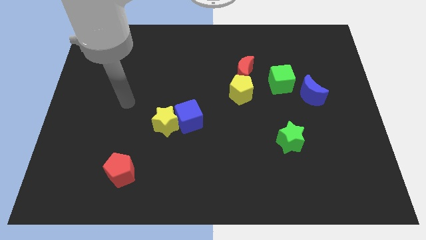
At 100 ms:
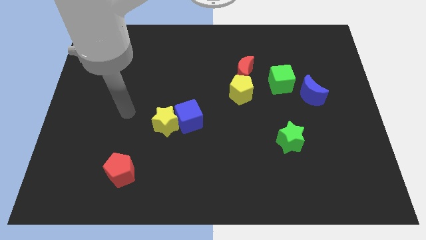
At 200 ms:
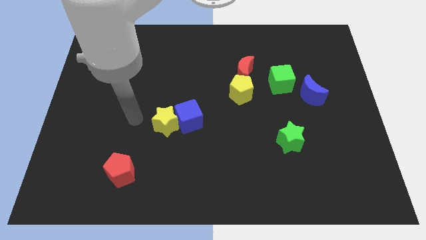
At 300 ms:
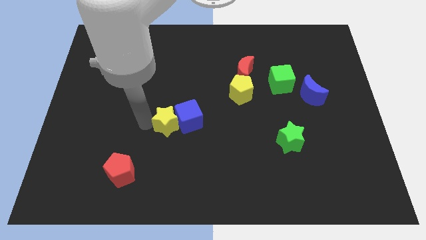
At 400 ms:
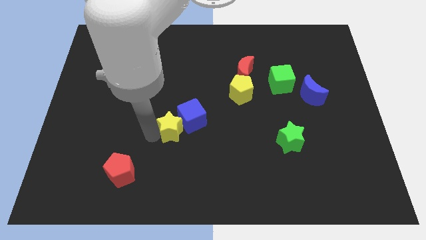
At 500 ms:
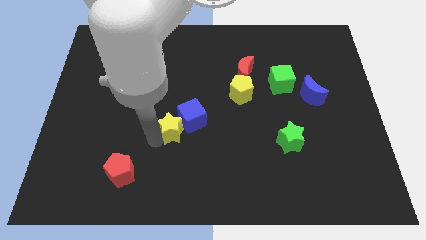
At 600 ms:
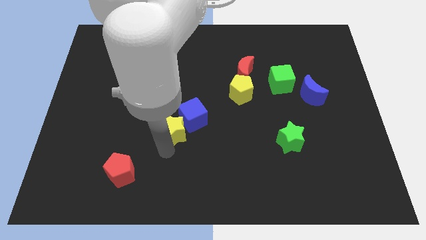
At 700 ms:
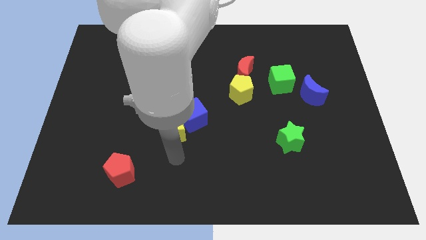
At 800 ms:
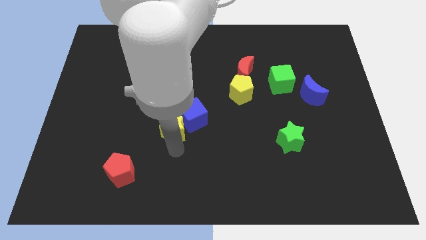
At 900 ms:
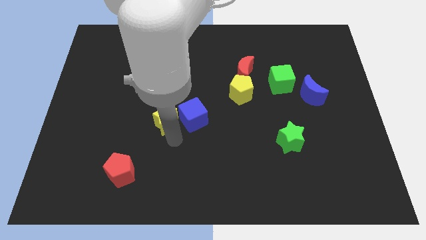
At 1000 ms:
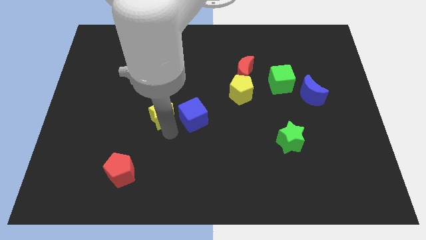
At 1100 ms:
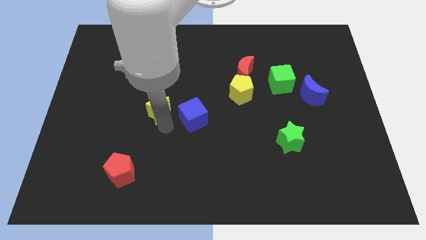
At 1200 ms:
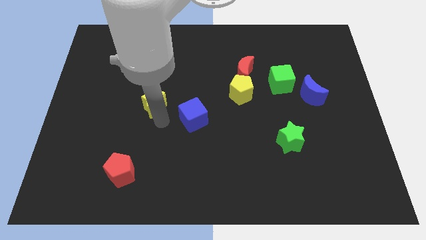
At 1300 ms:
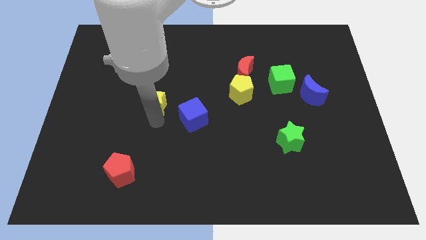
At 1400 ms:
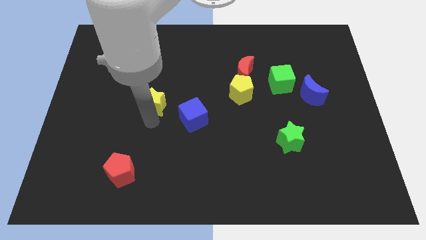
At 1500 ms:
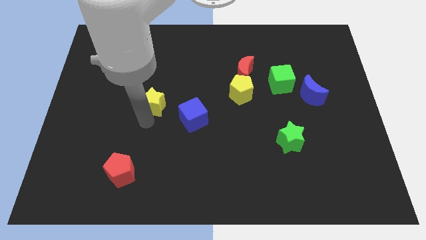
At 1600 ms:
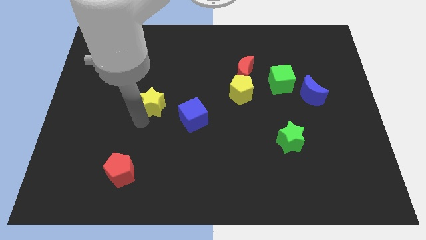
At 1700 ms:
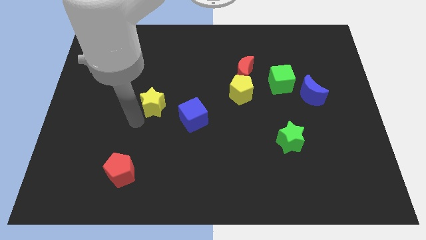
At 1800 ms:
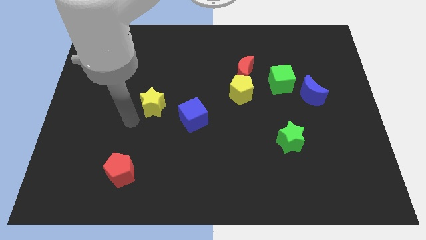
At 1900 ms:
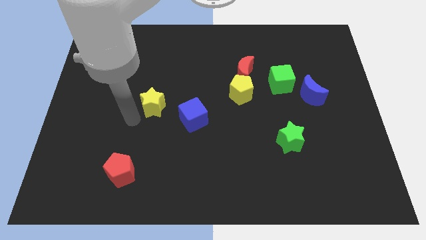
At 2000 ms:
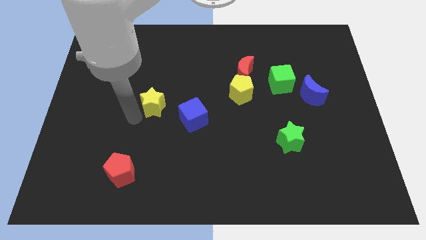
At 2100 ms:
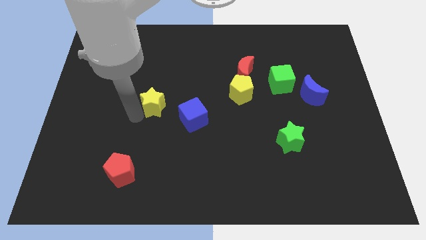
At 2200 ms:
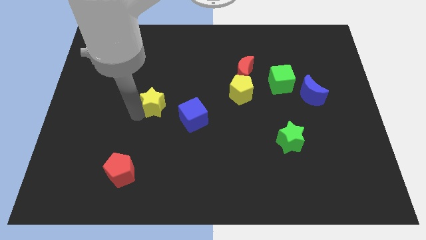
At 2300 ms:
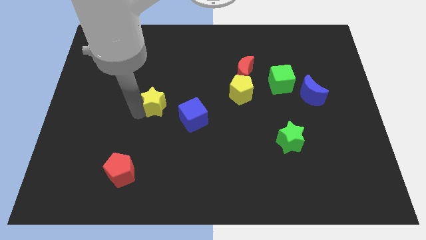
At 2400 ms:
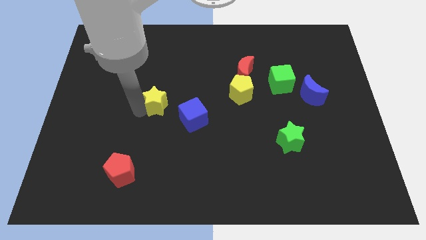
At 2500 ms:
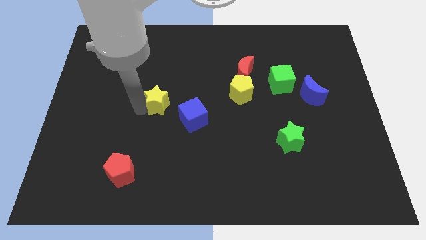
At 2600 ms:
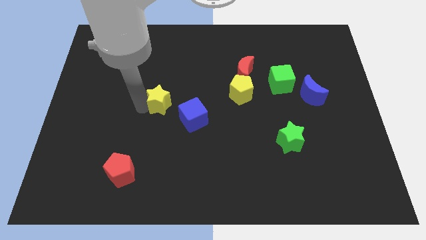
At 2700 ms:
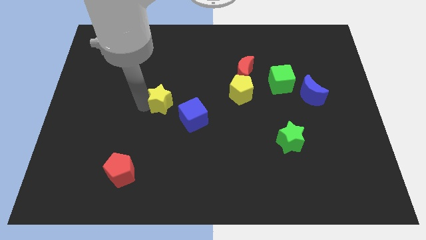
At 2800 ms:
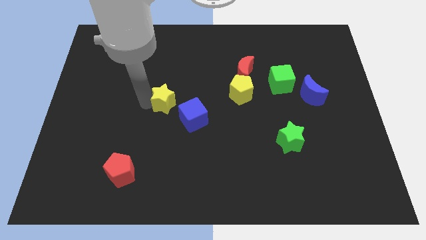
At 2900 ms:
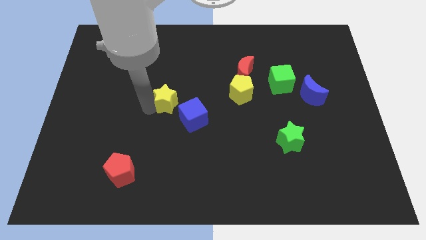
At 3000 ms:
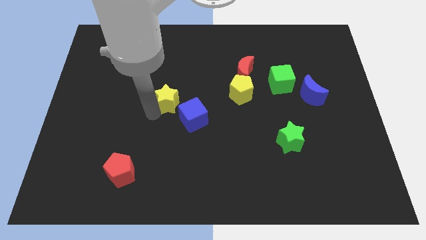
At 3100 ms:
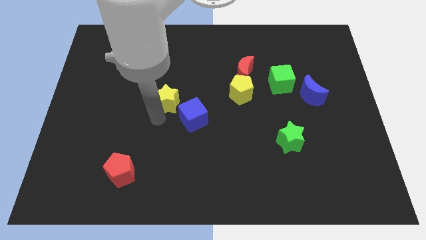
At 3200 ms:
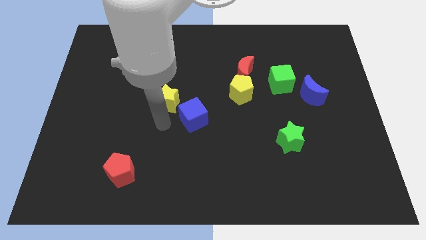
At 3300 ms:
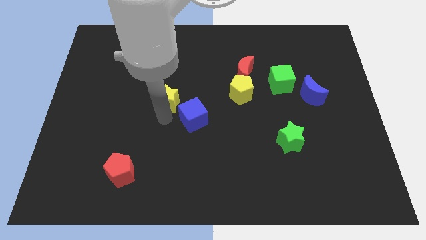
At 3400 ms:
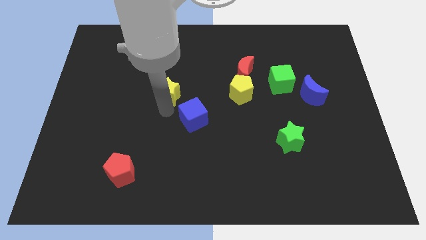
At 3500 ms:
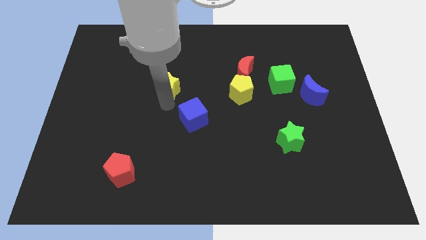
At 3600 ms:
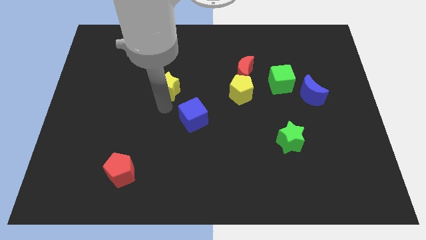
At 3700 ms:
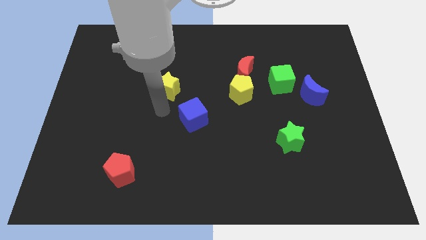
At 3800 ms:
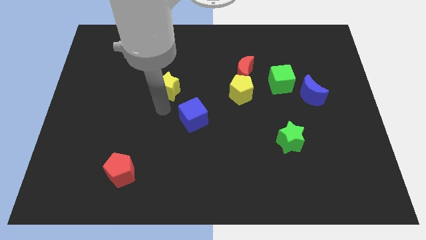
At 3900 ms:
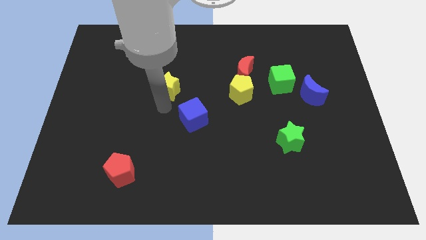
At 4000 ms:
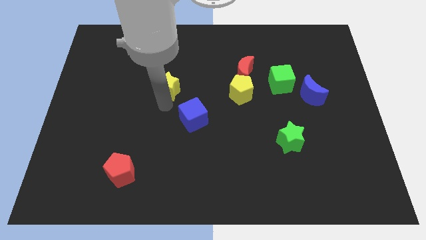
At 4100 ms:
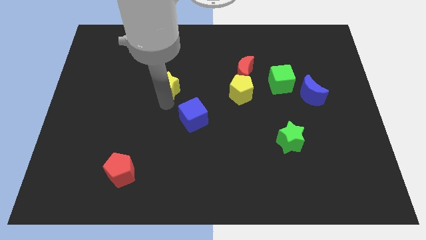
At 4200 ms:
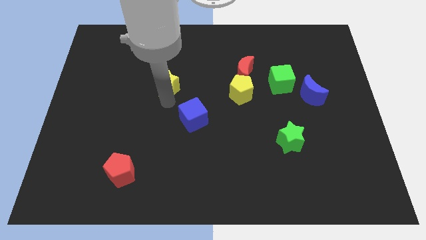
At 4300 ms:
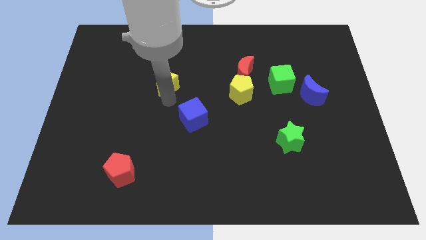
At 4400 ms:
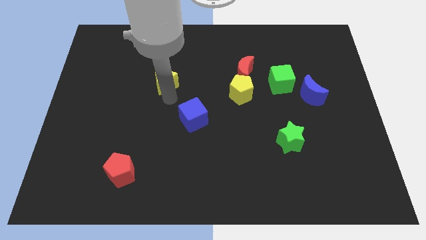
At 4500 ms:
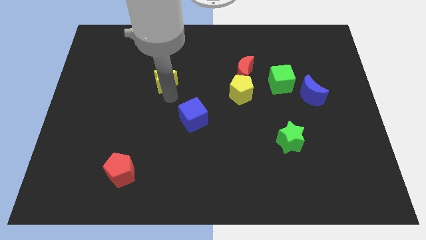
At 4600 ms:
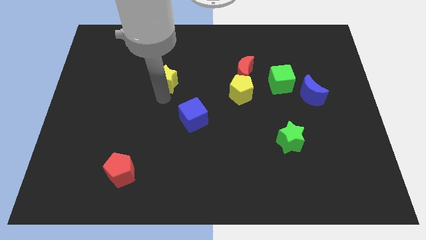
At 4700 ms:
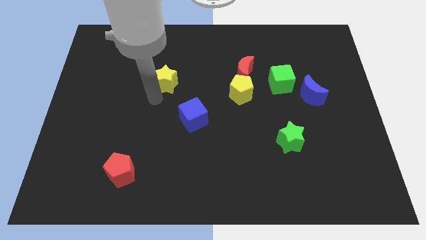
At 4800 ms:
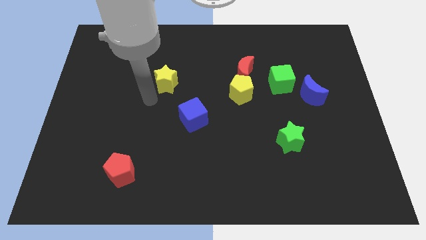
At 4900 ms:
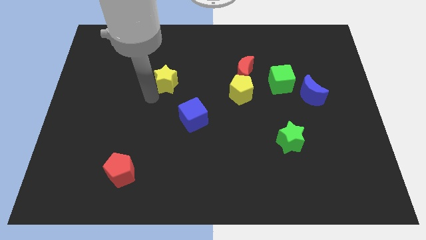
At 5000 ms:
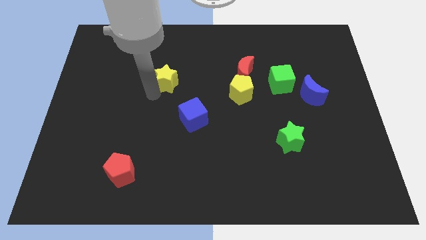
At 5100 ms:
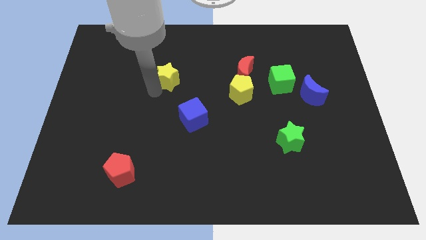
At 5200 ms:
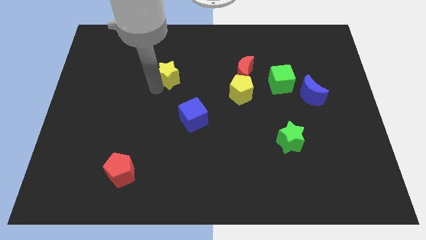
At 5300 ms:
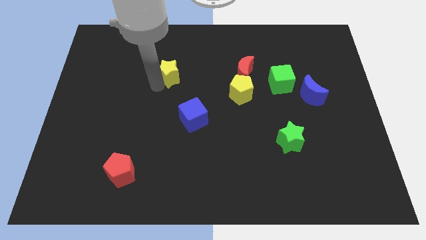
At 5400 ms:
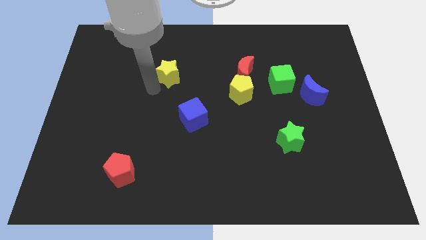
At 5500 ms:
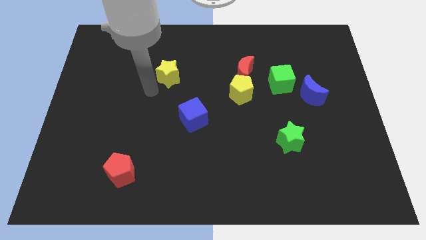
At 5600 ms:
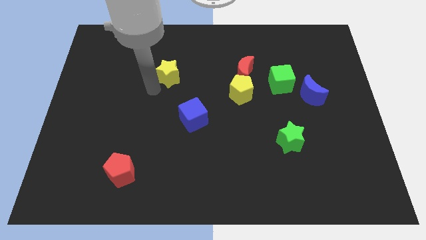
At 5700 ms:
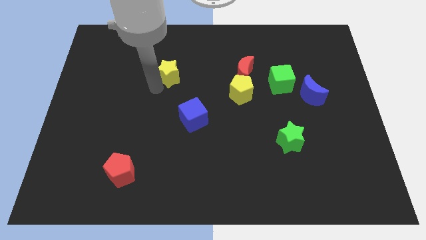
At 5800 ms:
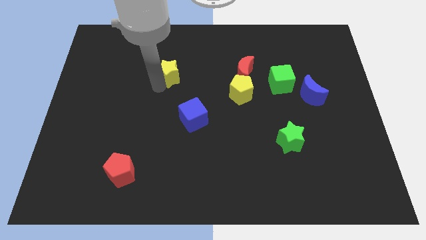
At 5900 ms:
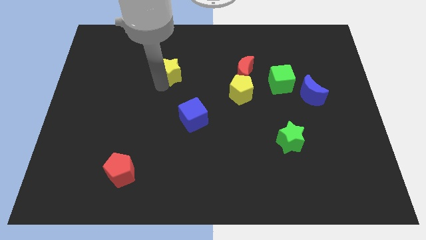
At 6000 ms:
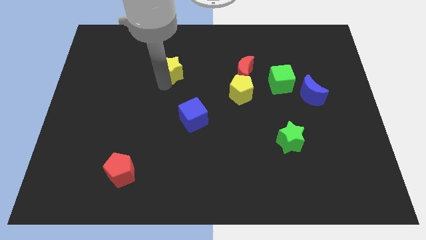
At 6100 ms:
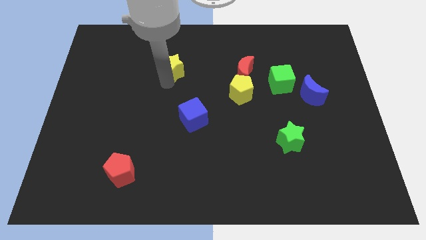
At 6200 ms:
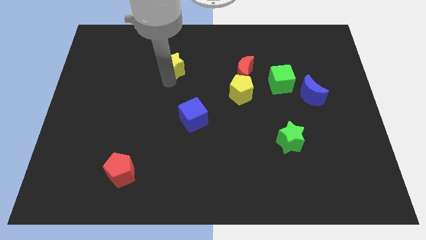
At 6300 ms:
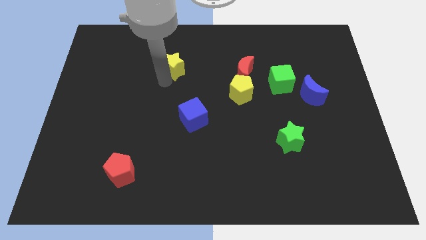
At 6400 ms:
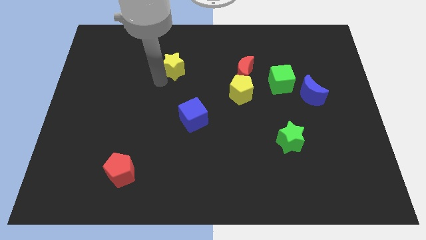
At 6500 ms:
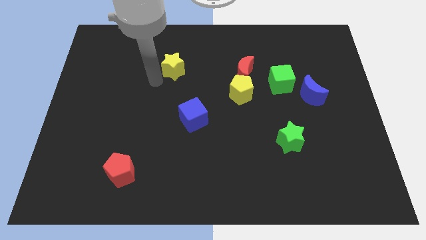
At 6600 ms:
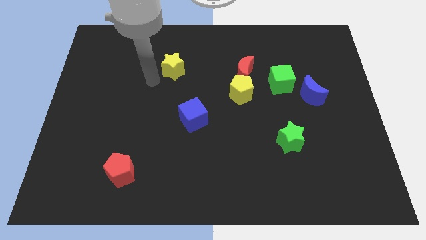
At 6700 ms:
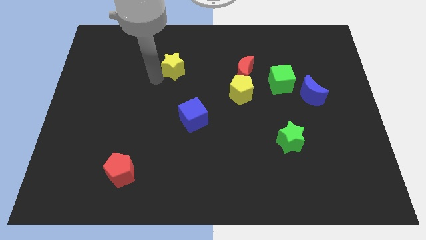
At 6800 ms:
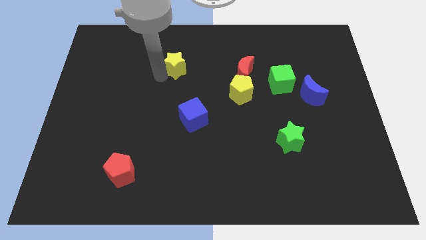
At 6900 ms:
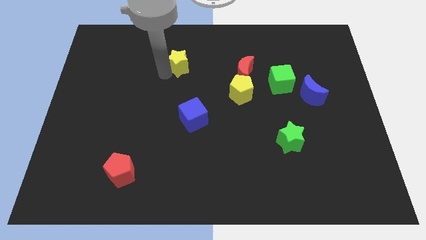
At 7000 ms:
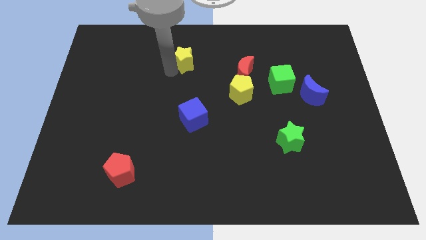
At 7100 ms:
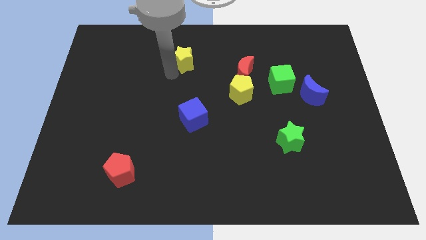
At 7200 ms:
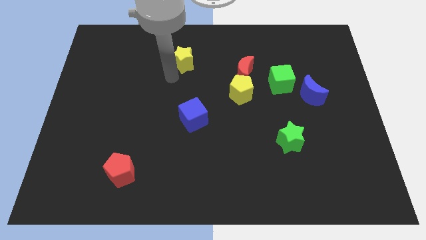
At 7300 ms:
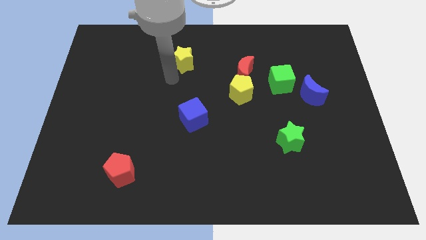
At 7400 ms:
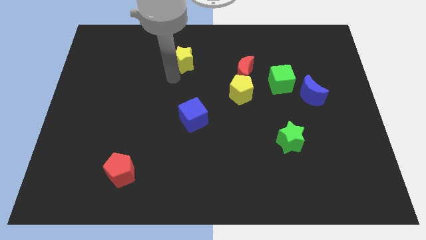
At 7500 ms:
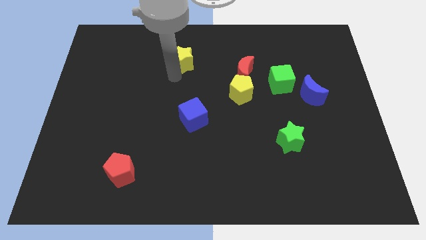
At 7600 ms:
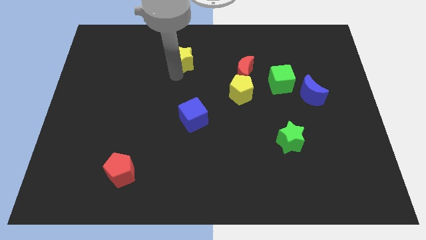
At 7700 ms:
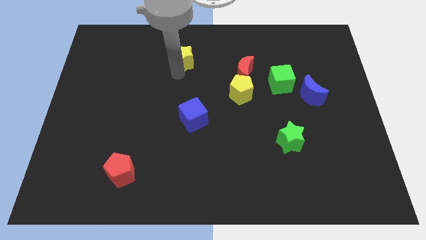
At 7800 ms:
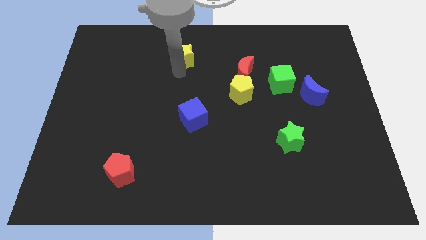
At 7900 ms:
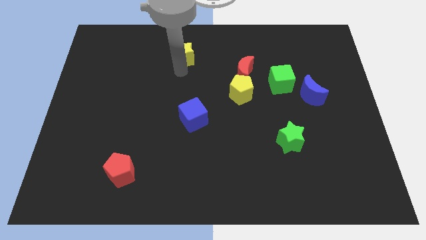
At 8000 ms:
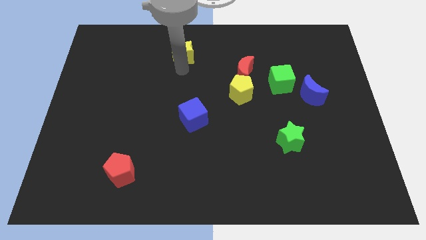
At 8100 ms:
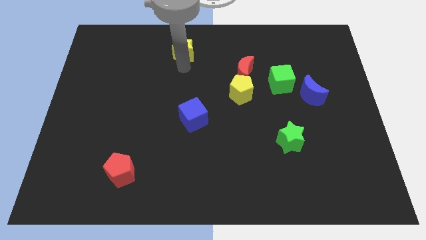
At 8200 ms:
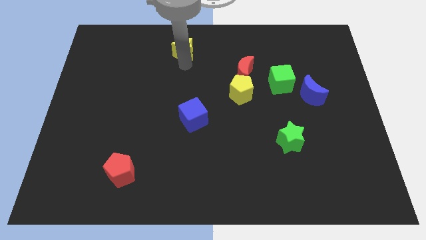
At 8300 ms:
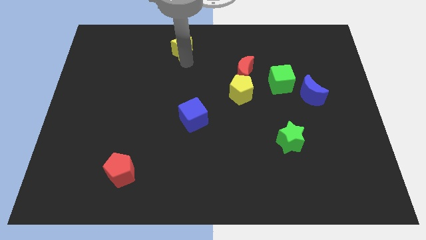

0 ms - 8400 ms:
slide the yellow star to the towards your base
